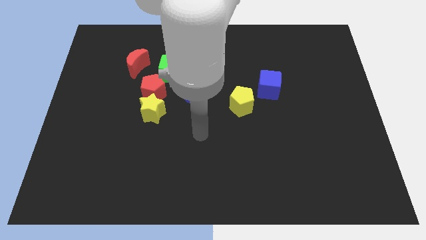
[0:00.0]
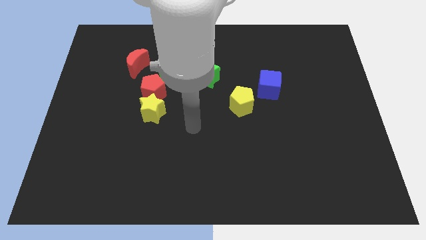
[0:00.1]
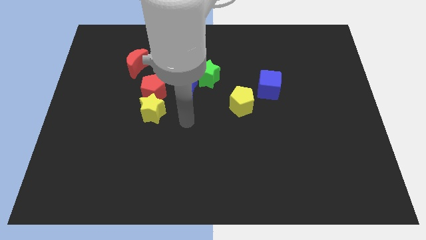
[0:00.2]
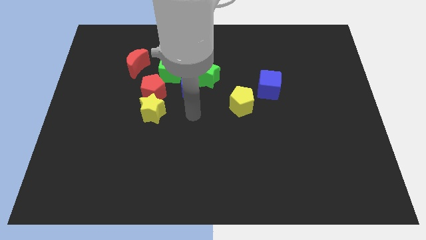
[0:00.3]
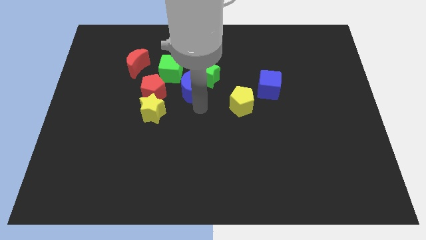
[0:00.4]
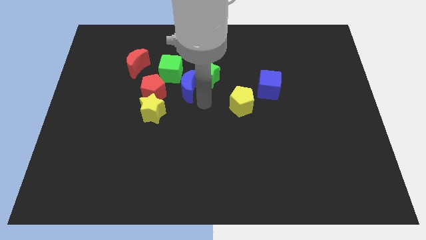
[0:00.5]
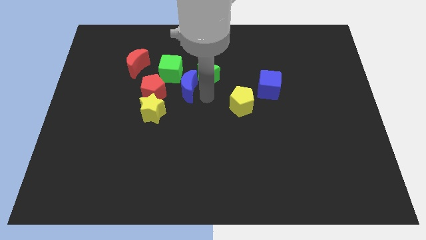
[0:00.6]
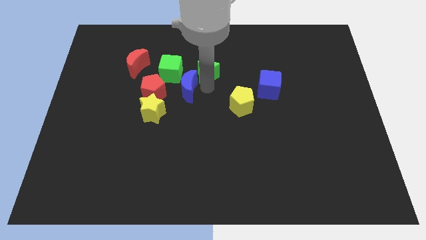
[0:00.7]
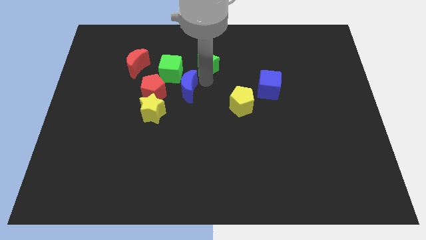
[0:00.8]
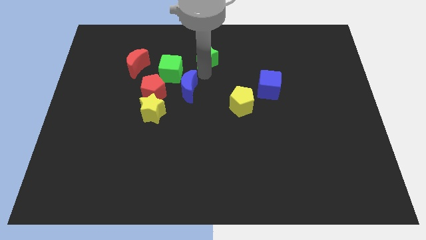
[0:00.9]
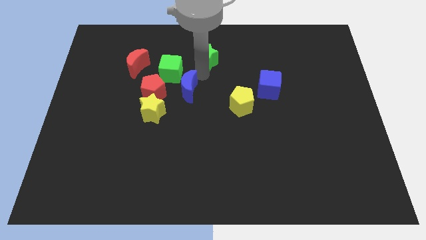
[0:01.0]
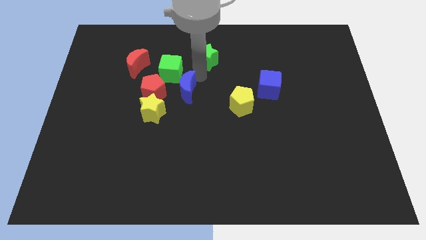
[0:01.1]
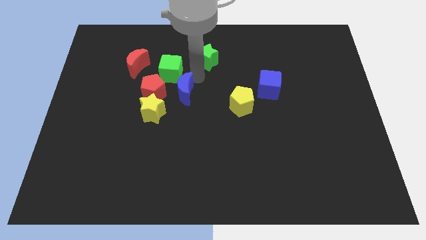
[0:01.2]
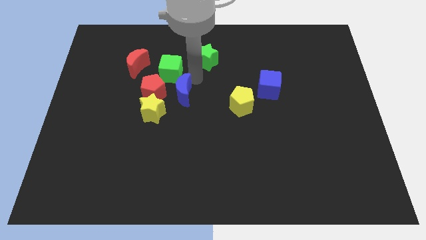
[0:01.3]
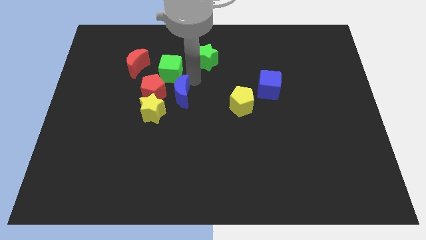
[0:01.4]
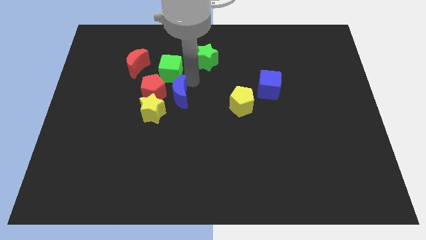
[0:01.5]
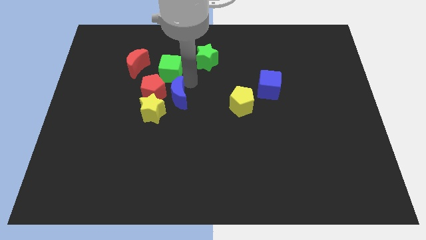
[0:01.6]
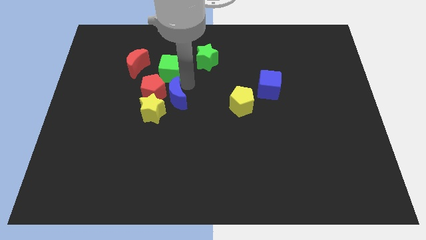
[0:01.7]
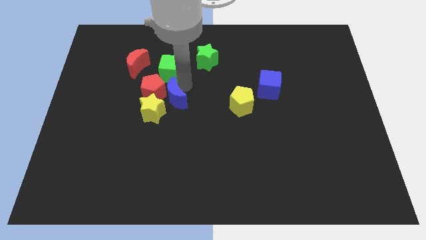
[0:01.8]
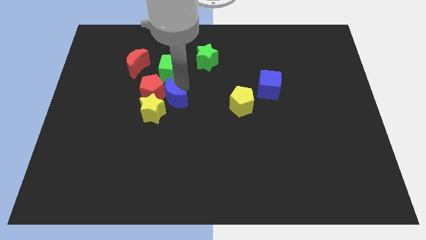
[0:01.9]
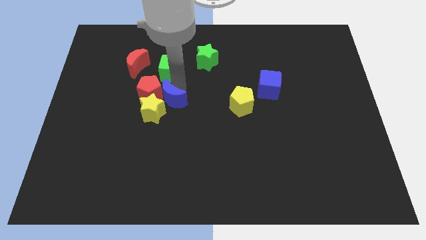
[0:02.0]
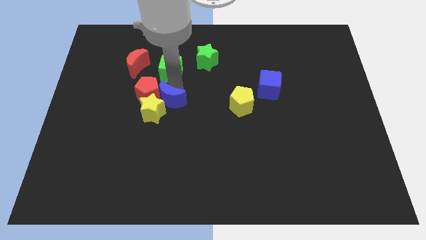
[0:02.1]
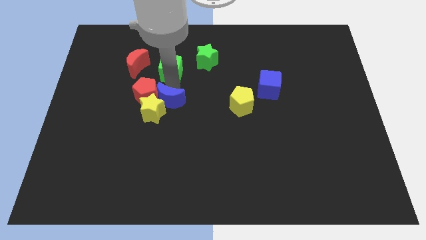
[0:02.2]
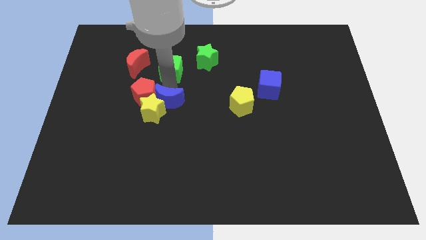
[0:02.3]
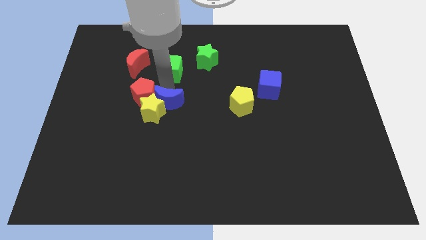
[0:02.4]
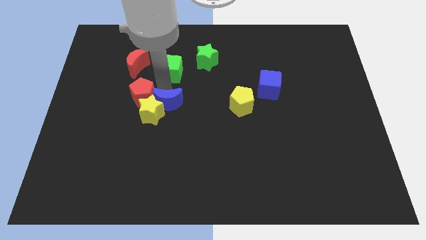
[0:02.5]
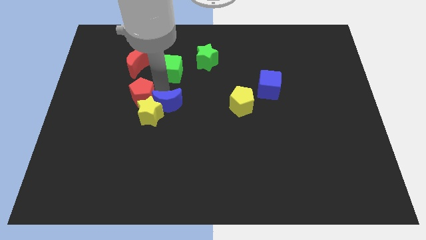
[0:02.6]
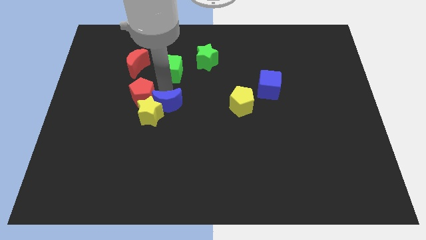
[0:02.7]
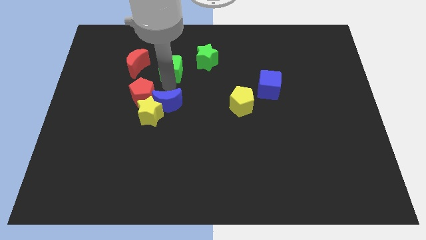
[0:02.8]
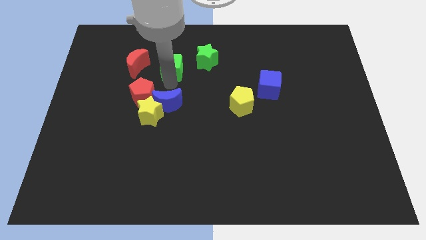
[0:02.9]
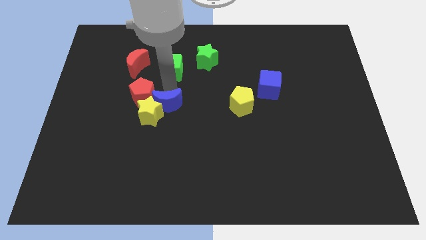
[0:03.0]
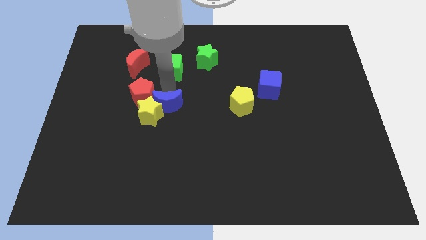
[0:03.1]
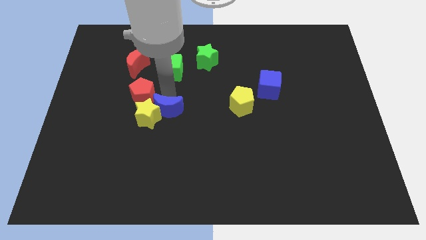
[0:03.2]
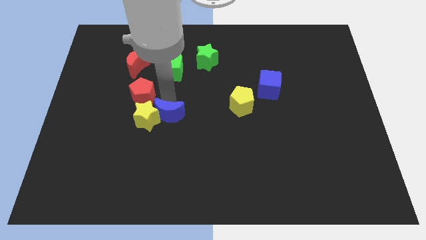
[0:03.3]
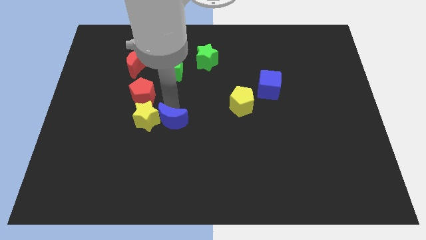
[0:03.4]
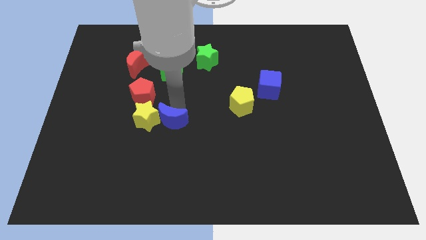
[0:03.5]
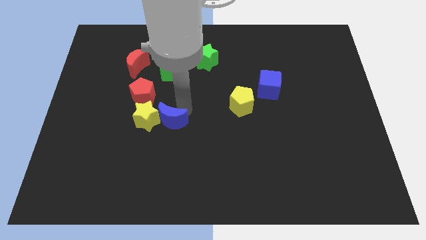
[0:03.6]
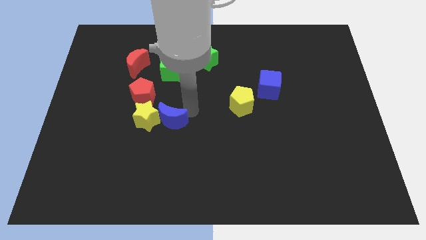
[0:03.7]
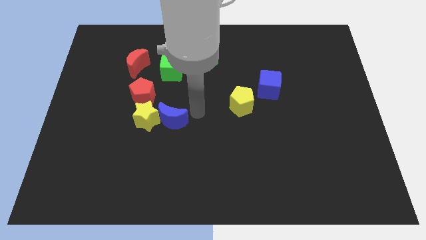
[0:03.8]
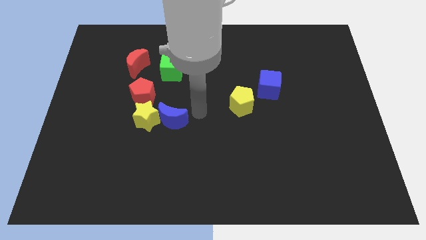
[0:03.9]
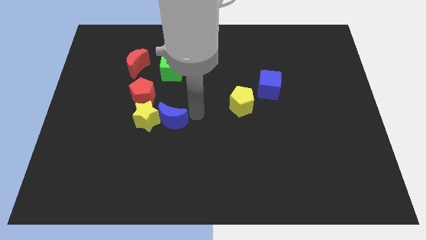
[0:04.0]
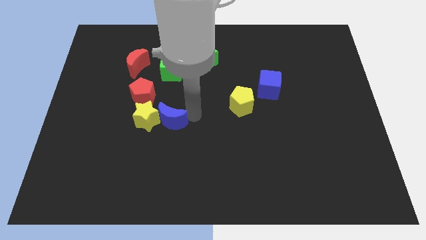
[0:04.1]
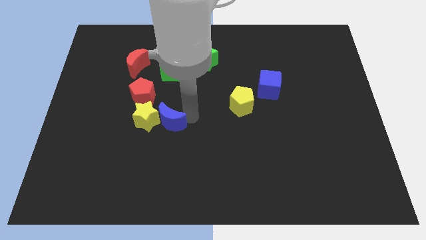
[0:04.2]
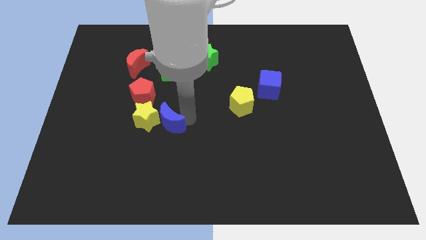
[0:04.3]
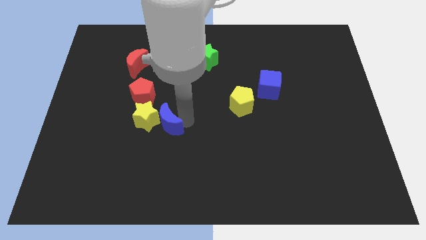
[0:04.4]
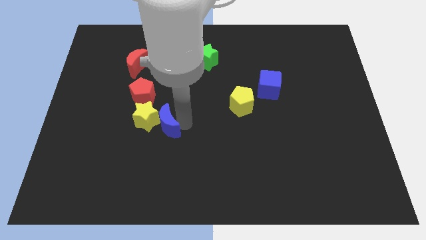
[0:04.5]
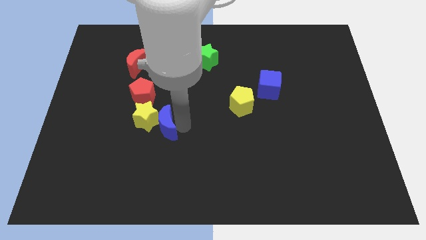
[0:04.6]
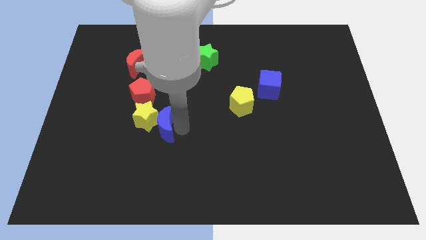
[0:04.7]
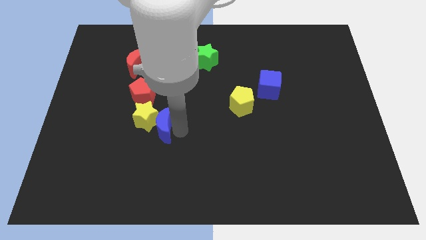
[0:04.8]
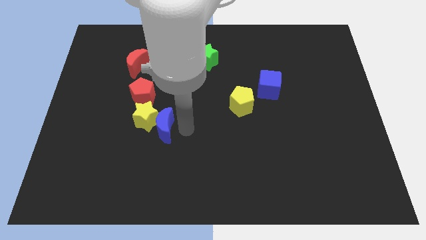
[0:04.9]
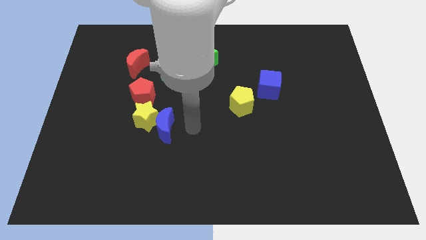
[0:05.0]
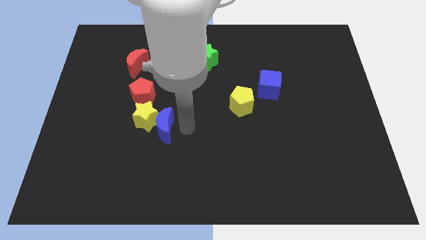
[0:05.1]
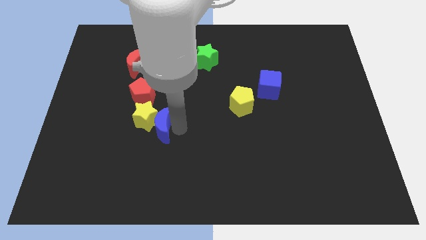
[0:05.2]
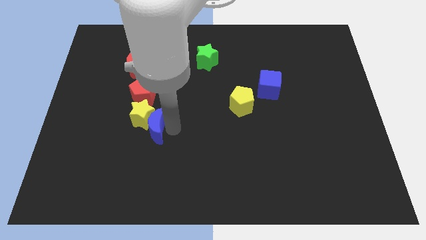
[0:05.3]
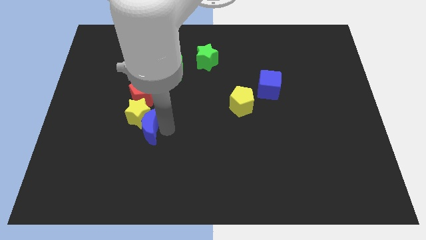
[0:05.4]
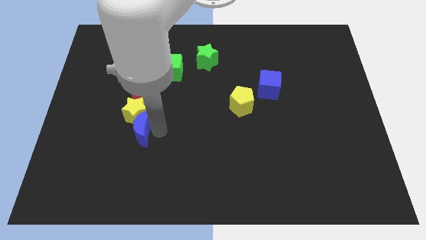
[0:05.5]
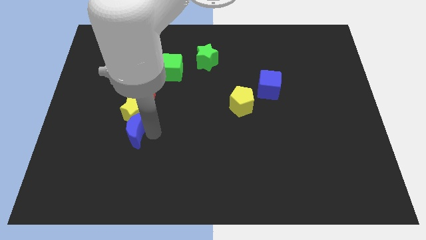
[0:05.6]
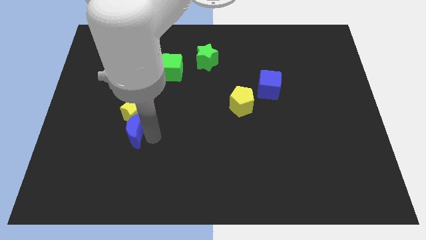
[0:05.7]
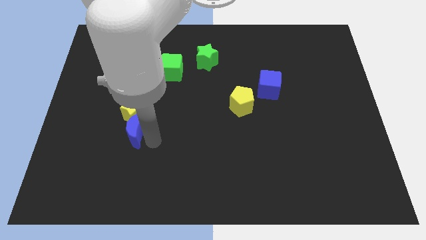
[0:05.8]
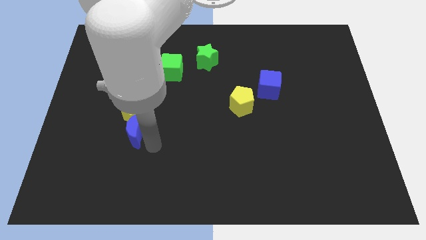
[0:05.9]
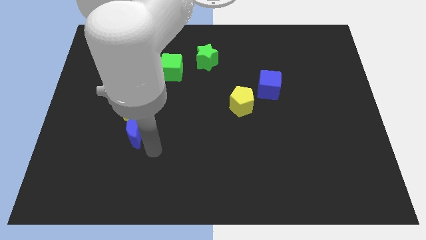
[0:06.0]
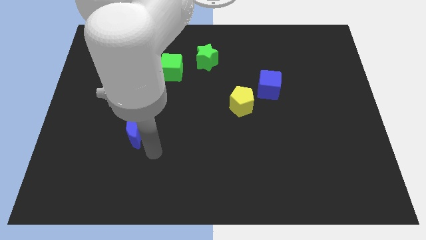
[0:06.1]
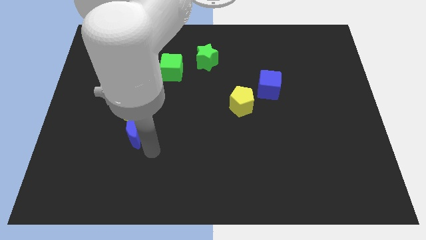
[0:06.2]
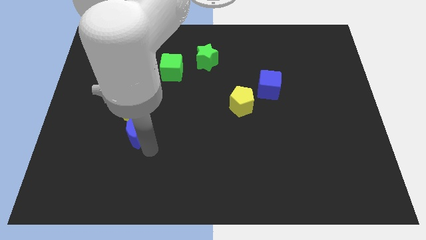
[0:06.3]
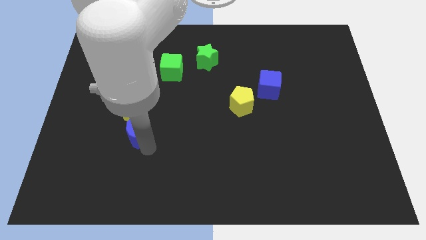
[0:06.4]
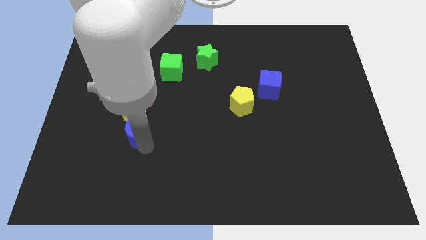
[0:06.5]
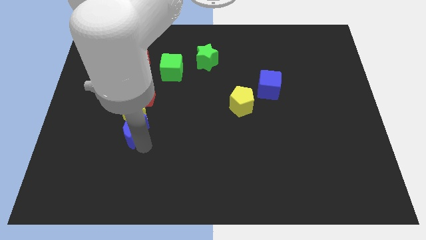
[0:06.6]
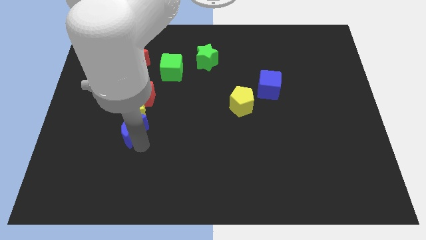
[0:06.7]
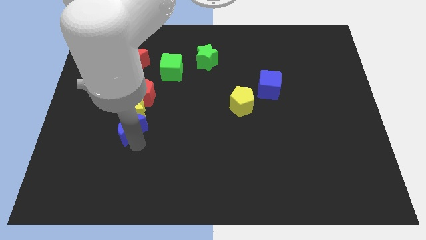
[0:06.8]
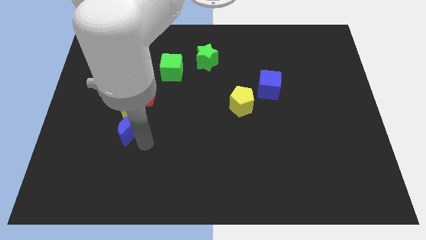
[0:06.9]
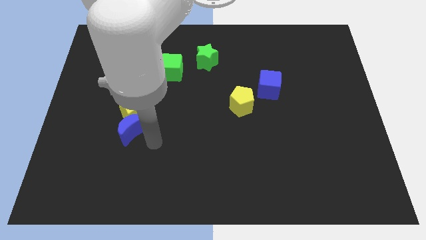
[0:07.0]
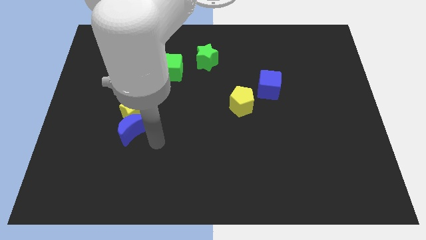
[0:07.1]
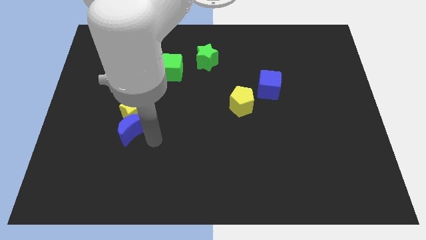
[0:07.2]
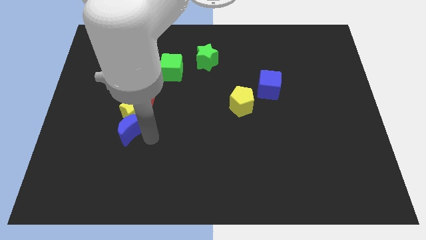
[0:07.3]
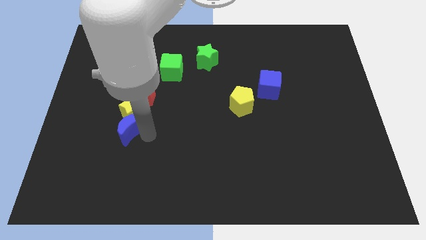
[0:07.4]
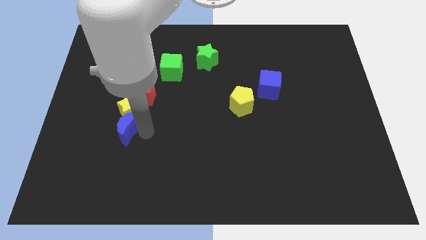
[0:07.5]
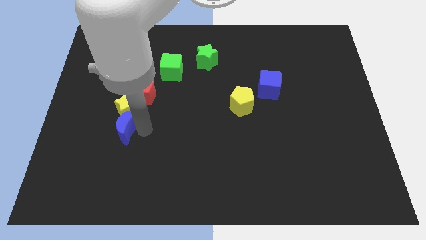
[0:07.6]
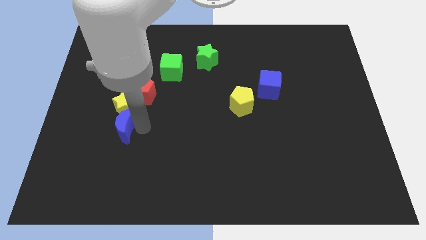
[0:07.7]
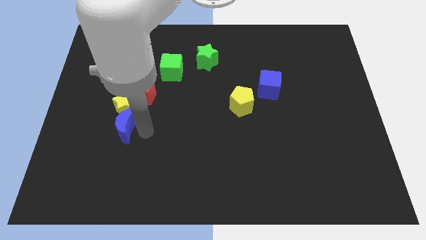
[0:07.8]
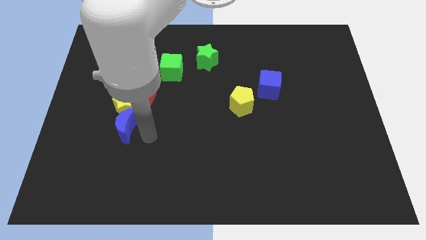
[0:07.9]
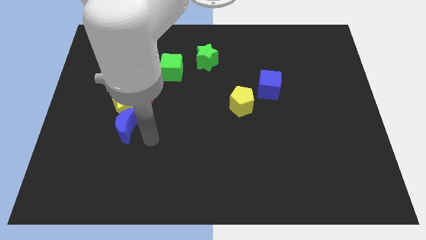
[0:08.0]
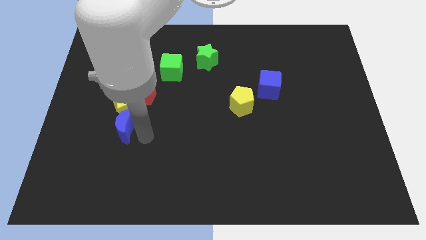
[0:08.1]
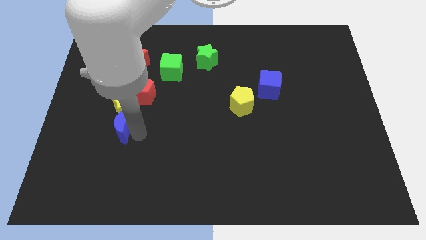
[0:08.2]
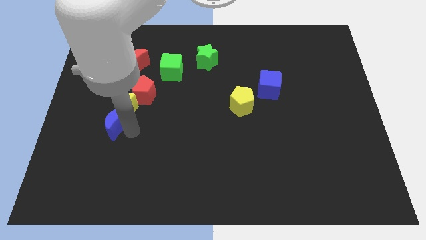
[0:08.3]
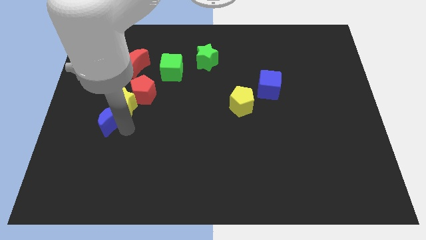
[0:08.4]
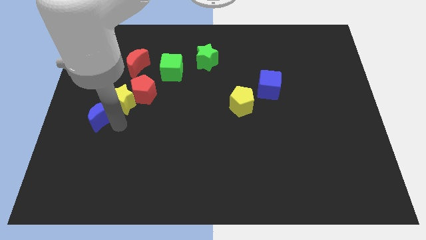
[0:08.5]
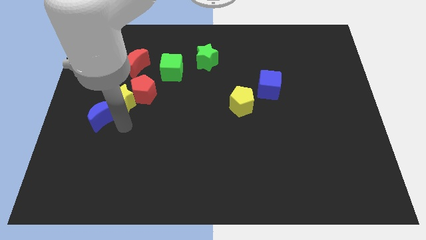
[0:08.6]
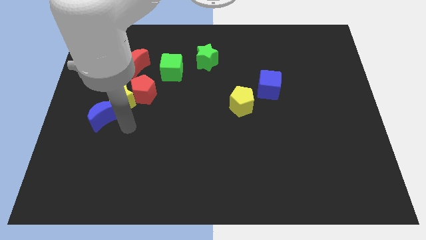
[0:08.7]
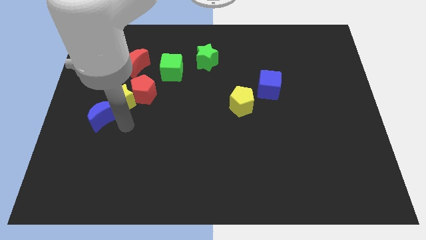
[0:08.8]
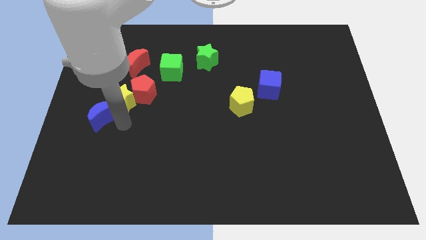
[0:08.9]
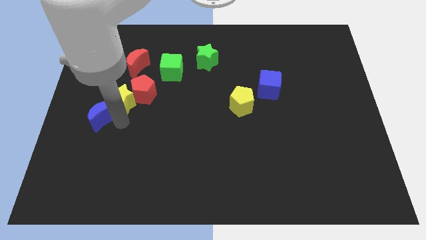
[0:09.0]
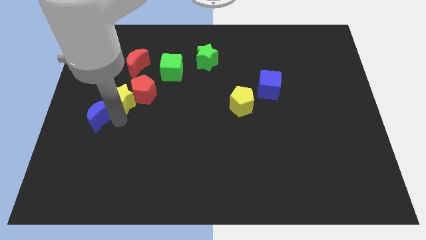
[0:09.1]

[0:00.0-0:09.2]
move the blue moon to the left side of the board
